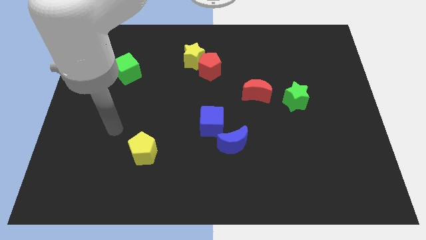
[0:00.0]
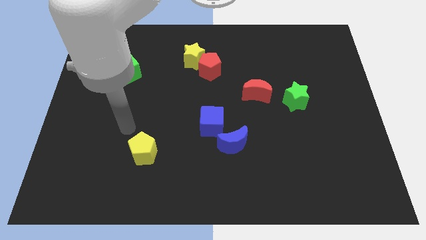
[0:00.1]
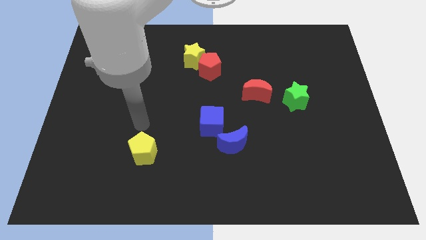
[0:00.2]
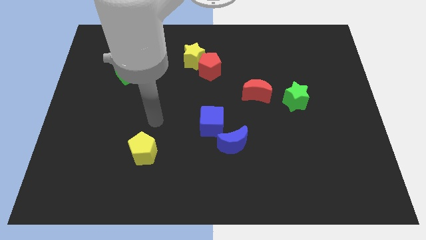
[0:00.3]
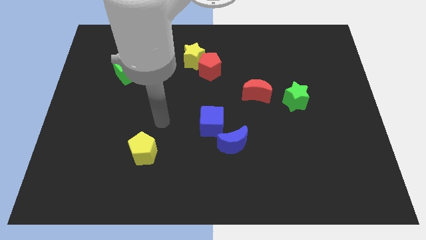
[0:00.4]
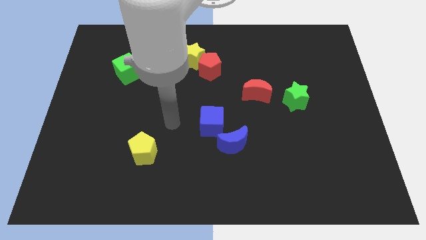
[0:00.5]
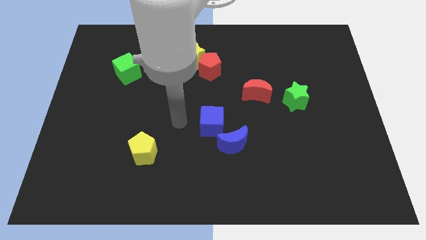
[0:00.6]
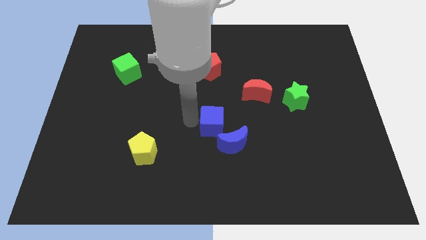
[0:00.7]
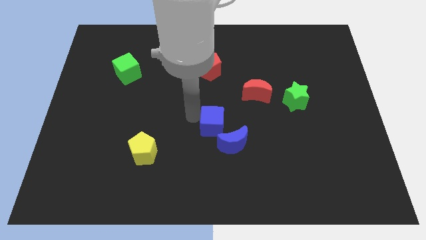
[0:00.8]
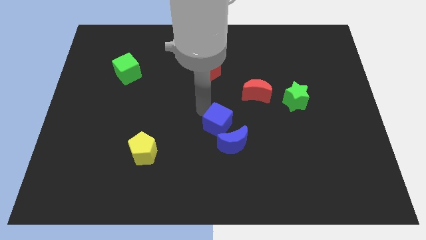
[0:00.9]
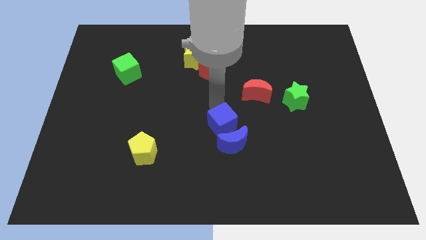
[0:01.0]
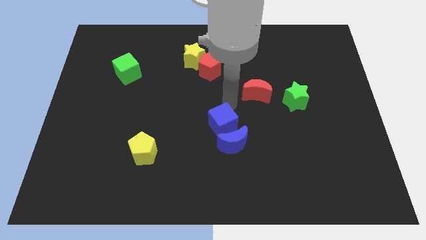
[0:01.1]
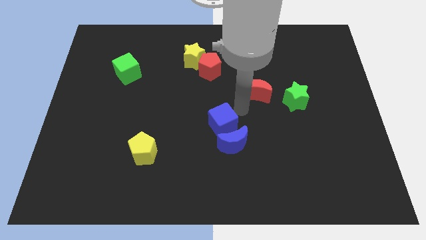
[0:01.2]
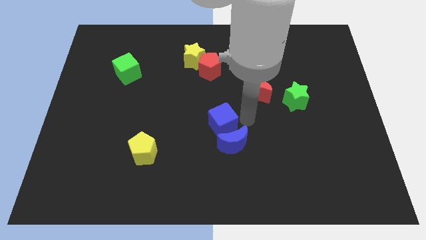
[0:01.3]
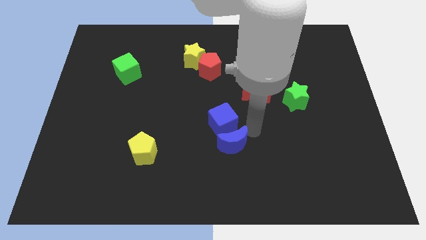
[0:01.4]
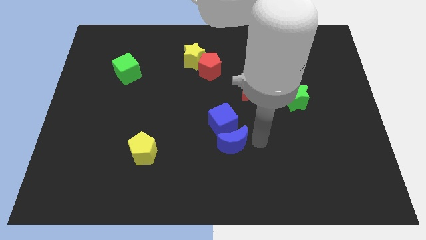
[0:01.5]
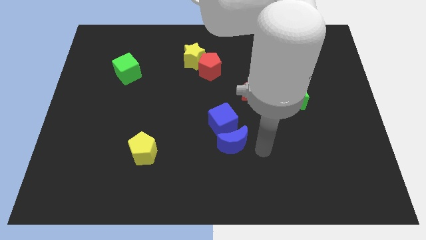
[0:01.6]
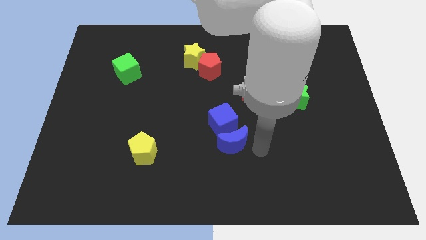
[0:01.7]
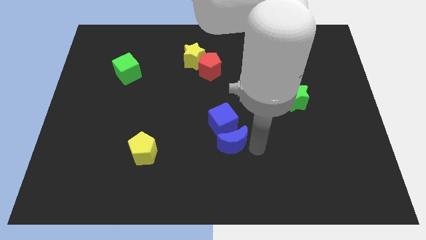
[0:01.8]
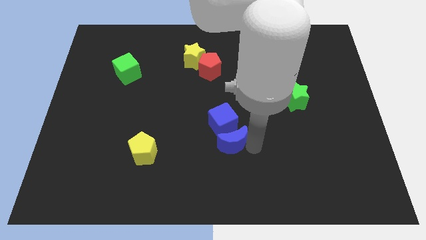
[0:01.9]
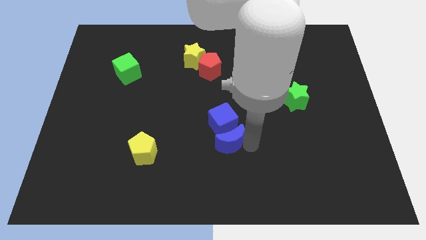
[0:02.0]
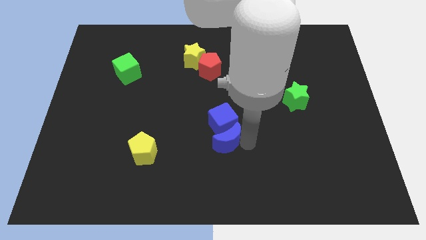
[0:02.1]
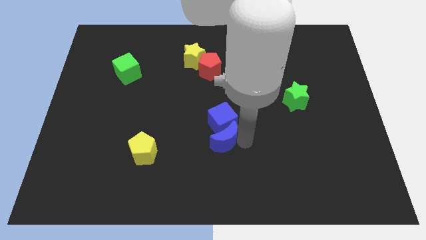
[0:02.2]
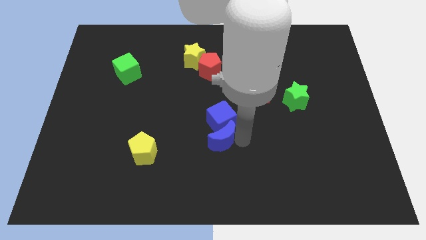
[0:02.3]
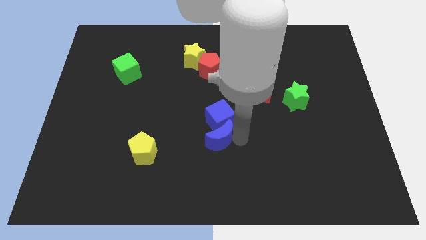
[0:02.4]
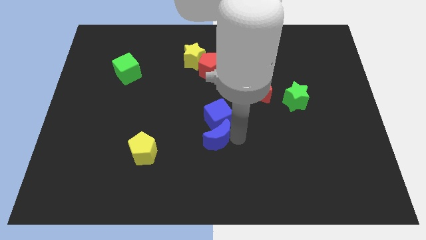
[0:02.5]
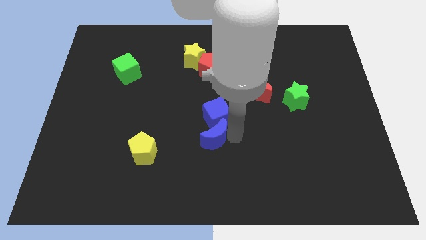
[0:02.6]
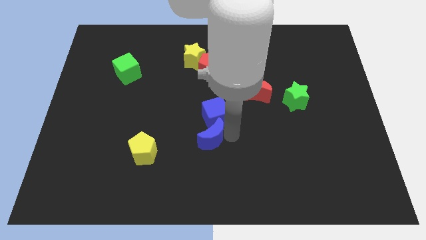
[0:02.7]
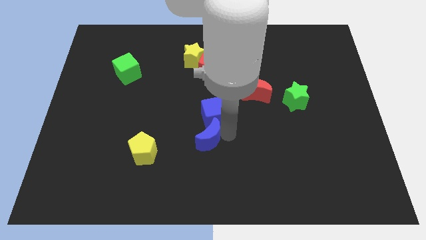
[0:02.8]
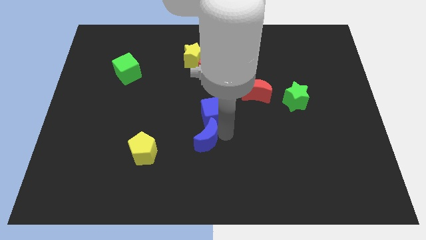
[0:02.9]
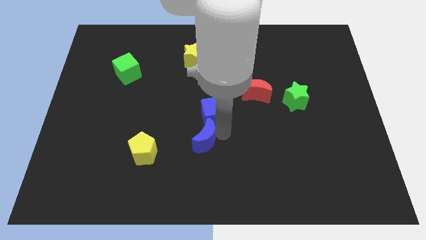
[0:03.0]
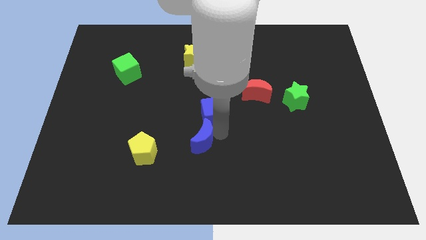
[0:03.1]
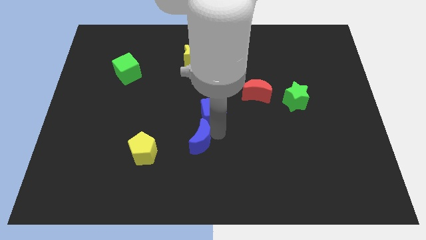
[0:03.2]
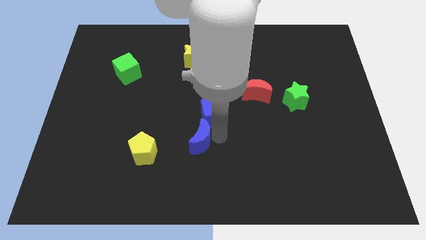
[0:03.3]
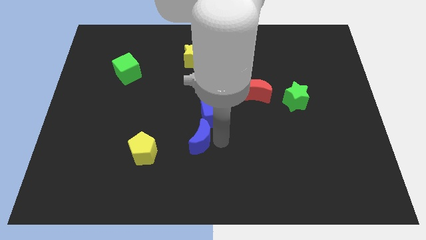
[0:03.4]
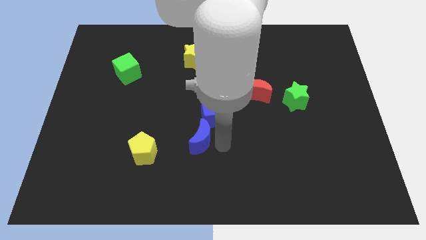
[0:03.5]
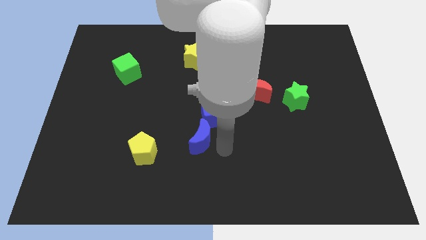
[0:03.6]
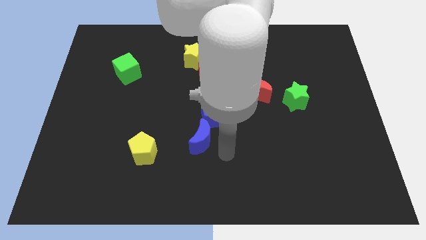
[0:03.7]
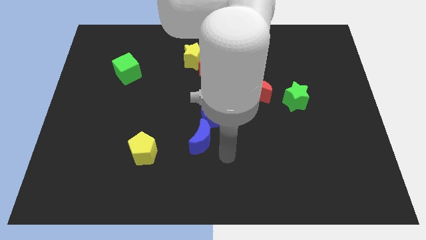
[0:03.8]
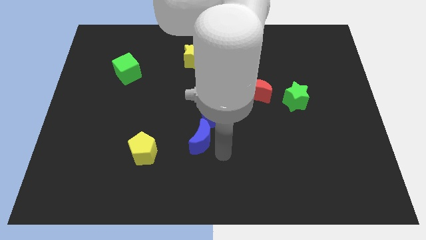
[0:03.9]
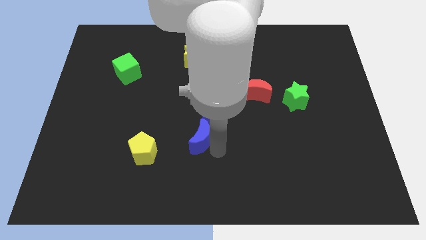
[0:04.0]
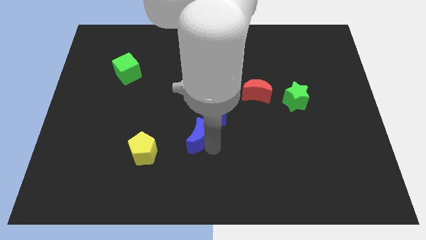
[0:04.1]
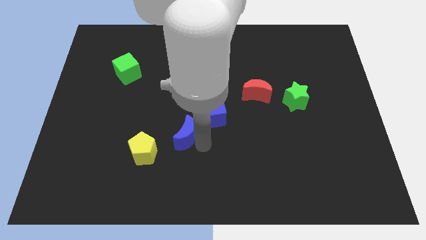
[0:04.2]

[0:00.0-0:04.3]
move the blue moon somewhat up and then left

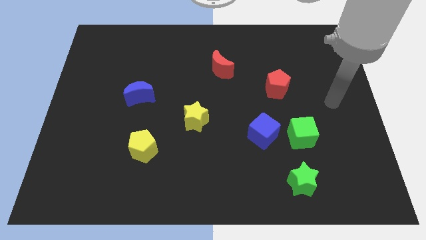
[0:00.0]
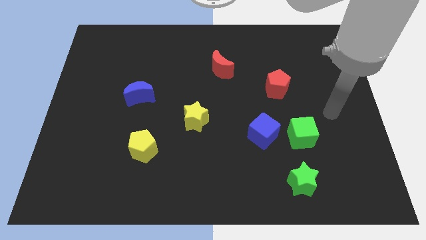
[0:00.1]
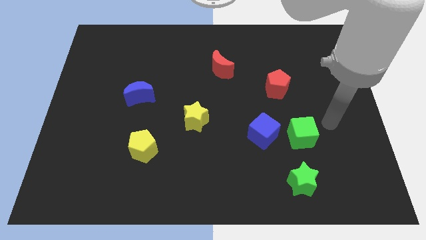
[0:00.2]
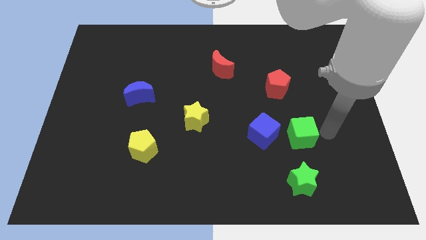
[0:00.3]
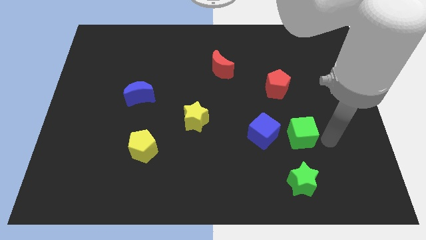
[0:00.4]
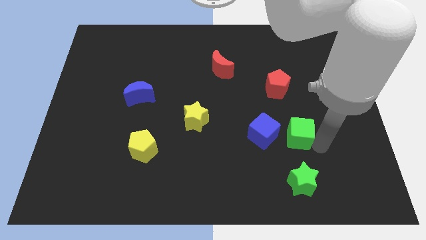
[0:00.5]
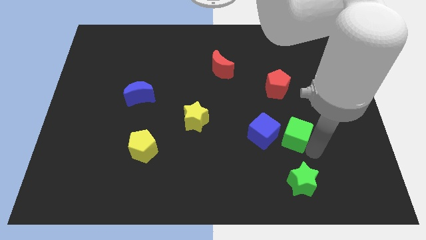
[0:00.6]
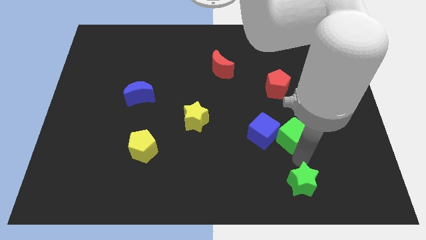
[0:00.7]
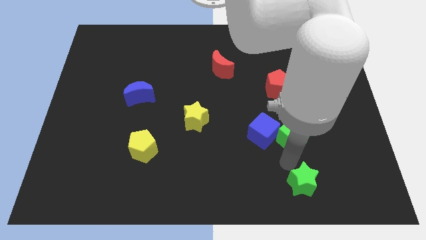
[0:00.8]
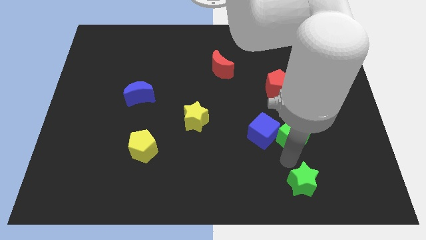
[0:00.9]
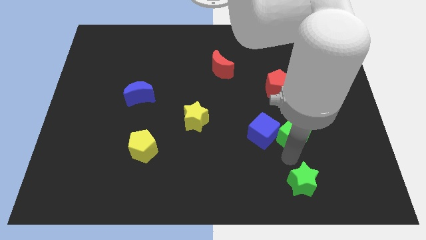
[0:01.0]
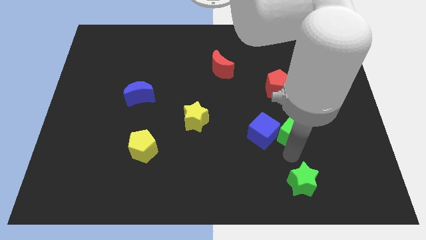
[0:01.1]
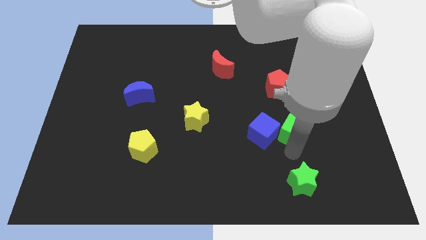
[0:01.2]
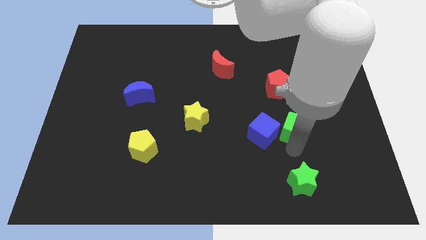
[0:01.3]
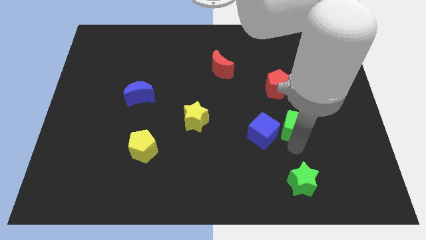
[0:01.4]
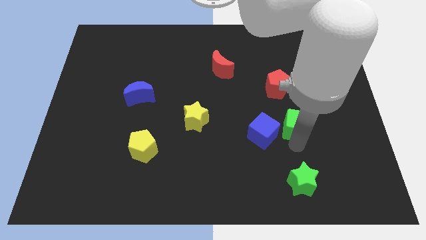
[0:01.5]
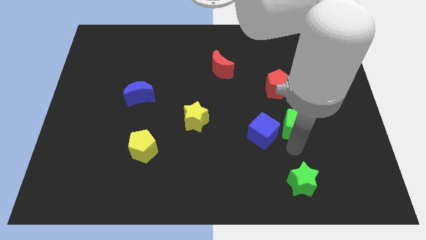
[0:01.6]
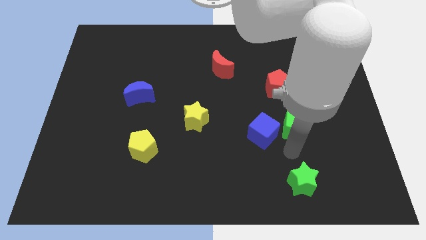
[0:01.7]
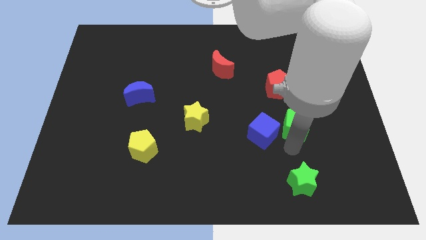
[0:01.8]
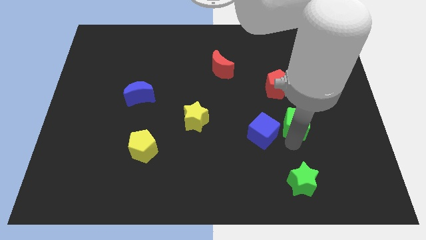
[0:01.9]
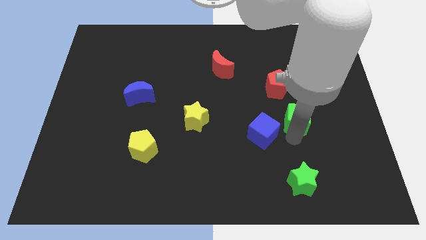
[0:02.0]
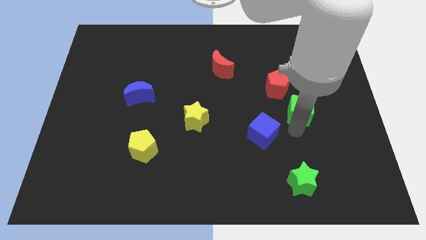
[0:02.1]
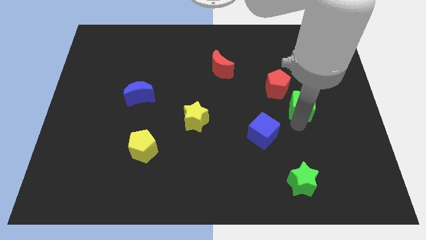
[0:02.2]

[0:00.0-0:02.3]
push the green cube upwards a little

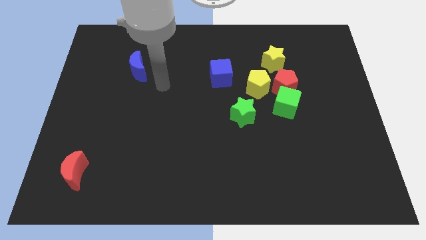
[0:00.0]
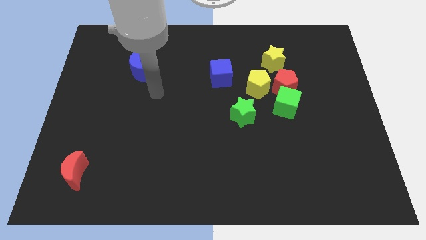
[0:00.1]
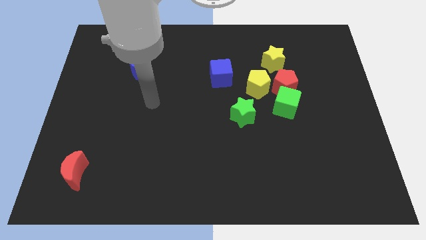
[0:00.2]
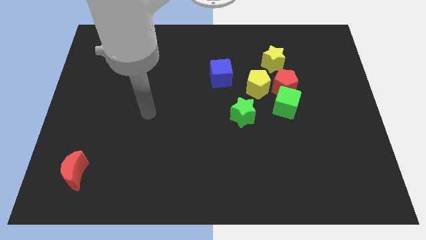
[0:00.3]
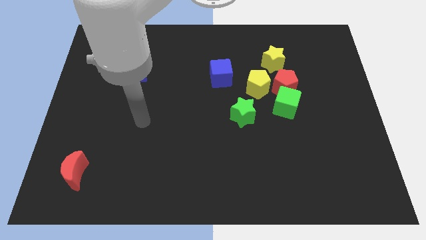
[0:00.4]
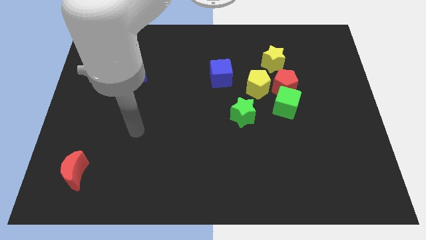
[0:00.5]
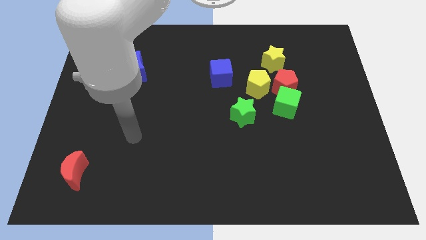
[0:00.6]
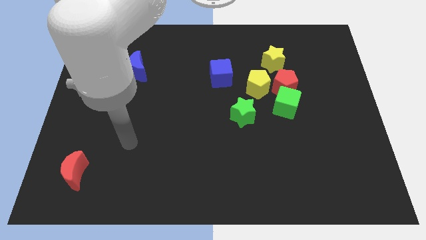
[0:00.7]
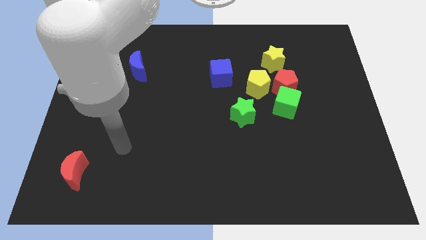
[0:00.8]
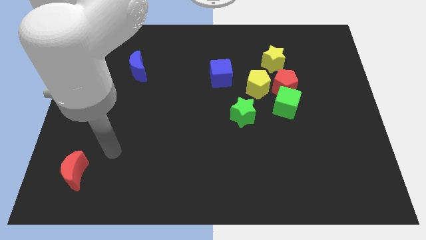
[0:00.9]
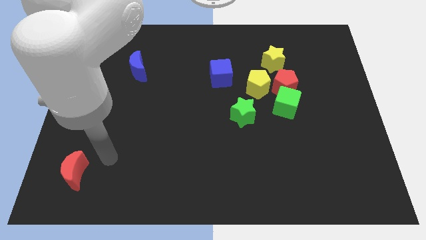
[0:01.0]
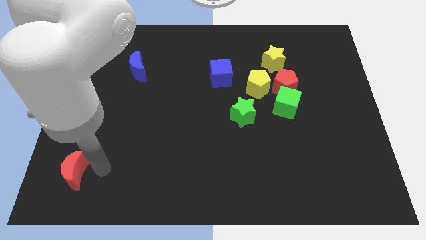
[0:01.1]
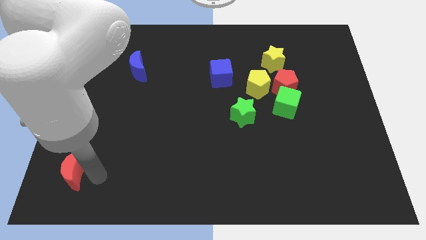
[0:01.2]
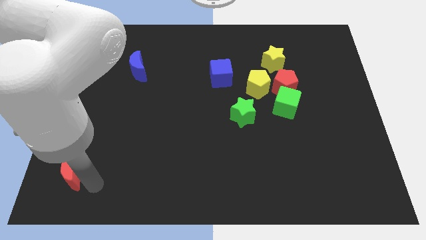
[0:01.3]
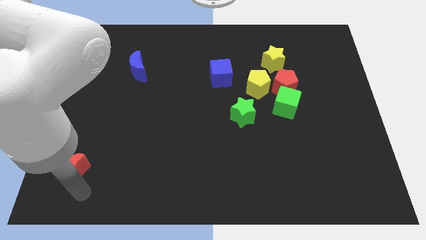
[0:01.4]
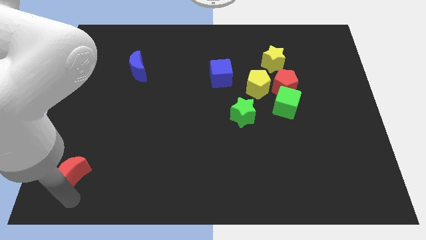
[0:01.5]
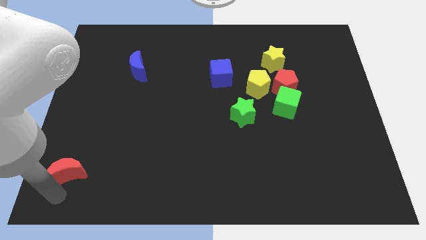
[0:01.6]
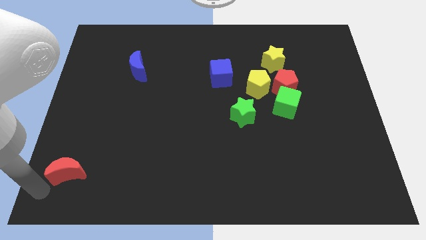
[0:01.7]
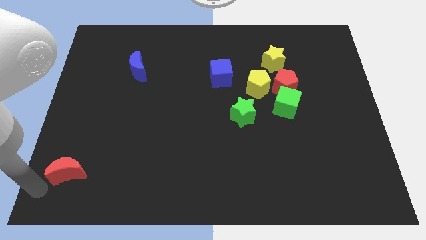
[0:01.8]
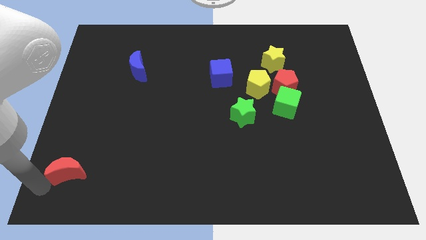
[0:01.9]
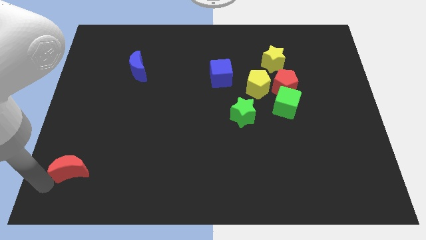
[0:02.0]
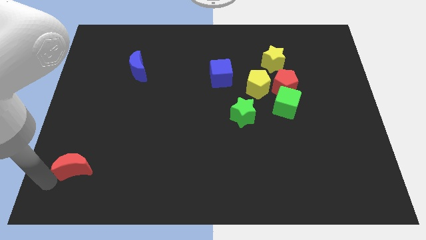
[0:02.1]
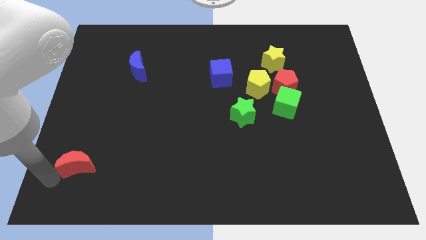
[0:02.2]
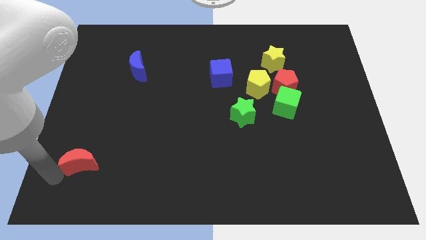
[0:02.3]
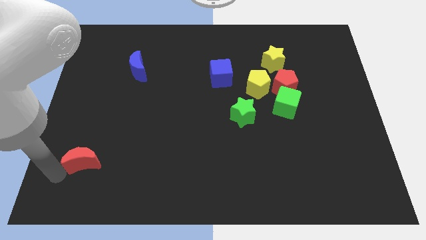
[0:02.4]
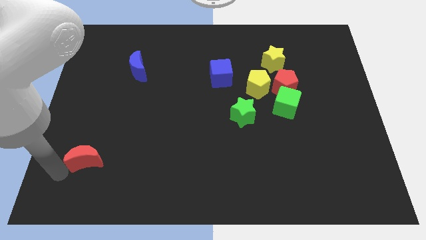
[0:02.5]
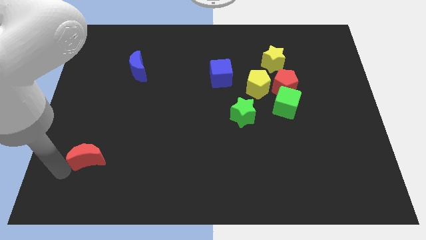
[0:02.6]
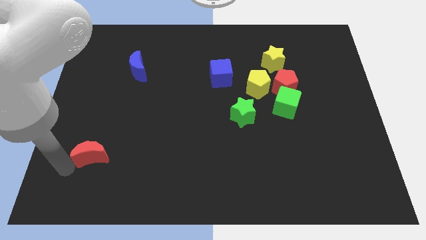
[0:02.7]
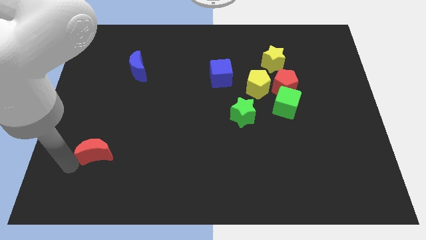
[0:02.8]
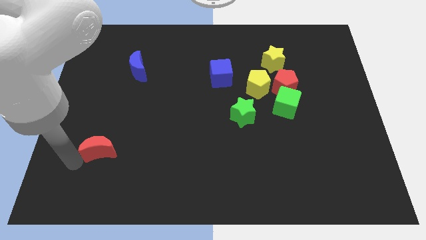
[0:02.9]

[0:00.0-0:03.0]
slightly slide the red moon up and right diagonally
